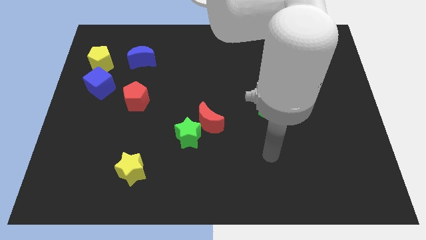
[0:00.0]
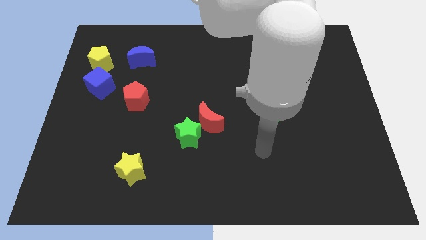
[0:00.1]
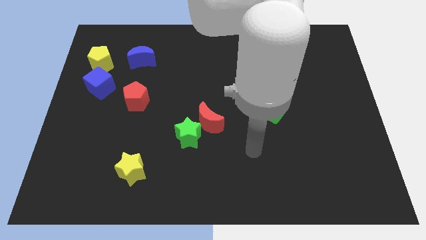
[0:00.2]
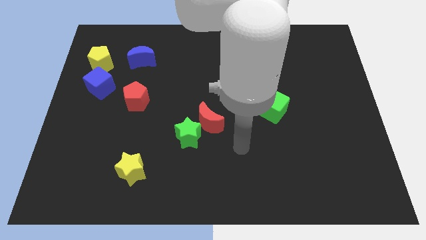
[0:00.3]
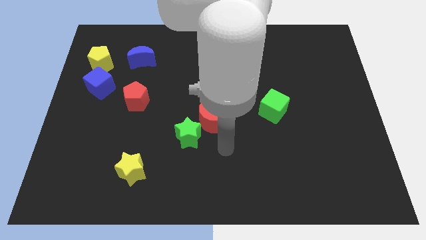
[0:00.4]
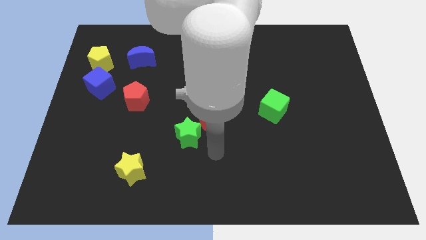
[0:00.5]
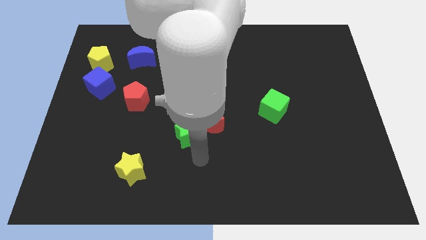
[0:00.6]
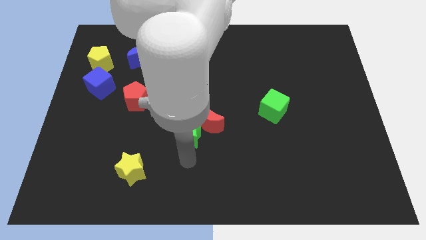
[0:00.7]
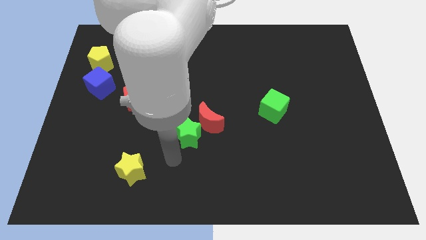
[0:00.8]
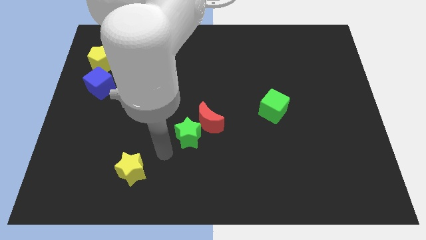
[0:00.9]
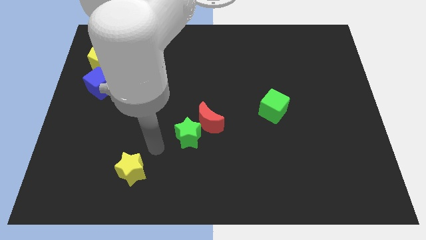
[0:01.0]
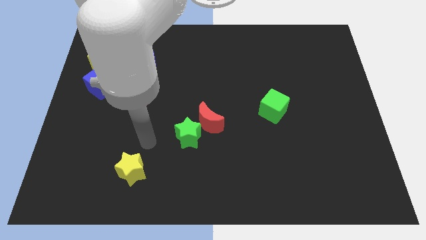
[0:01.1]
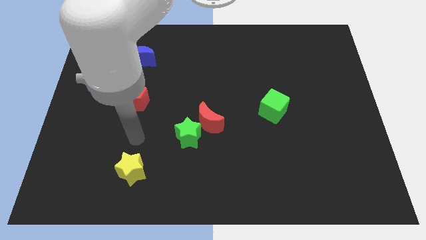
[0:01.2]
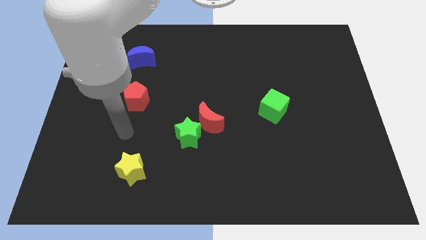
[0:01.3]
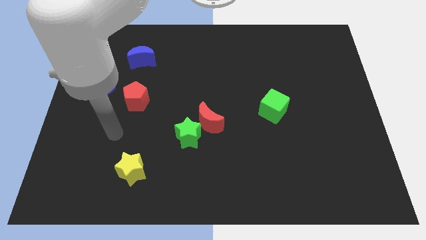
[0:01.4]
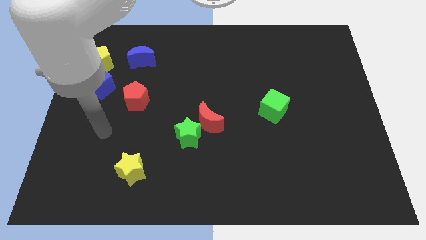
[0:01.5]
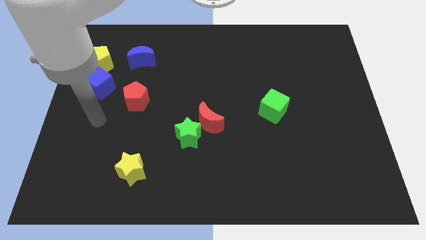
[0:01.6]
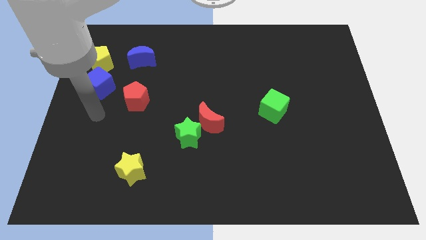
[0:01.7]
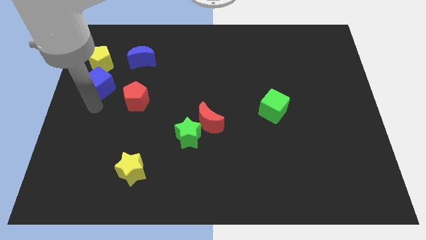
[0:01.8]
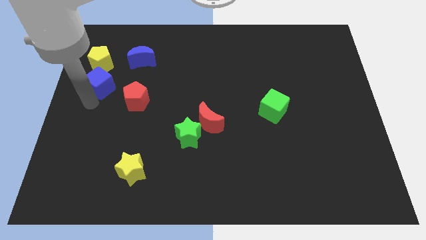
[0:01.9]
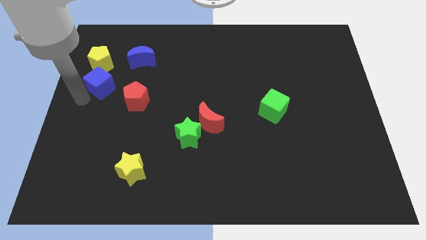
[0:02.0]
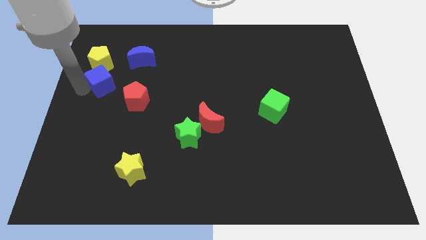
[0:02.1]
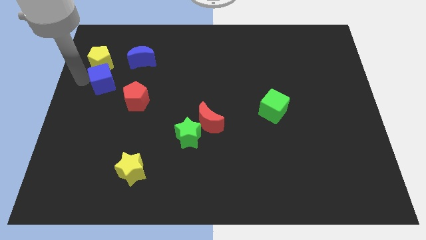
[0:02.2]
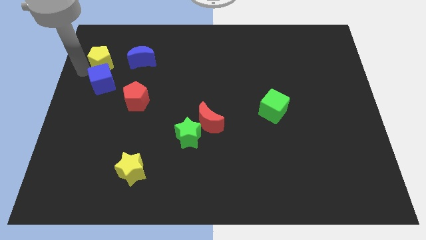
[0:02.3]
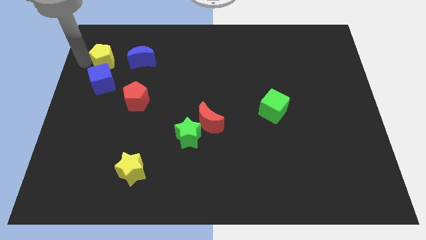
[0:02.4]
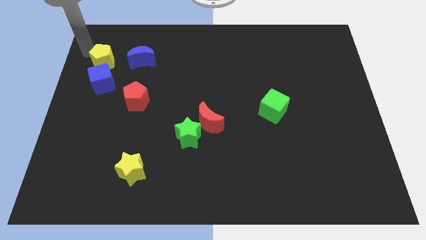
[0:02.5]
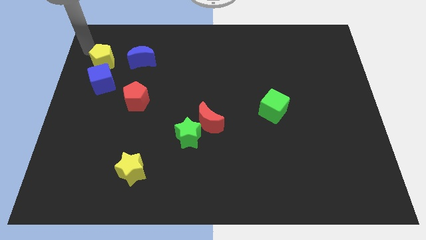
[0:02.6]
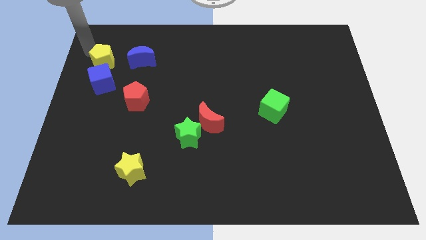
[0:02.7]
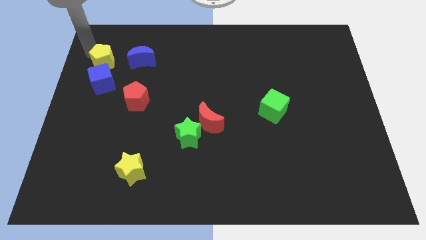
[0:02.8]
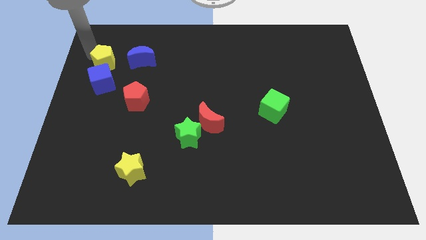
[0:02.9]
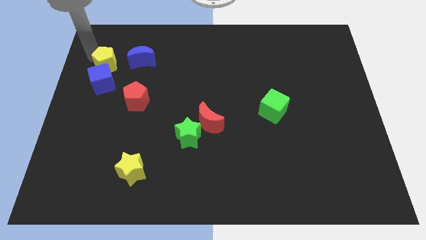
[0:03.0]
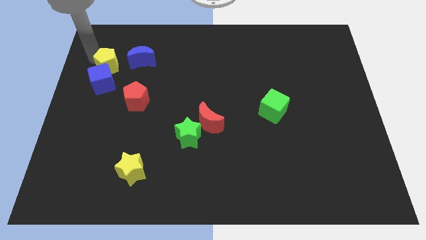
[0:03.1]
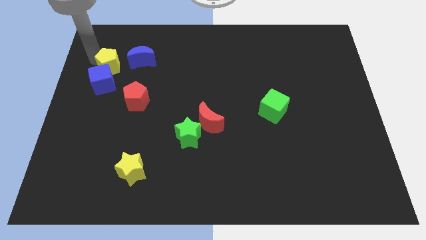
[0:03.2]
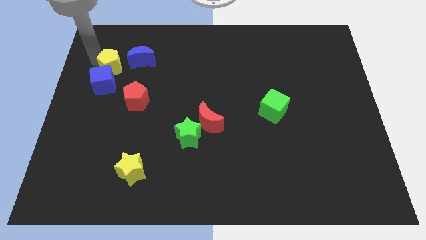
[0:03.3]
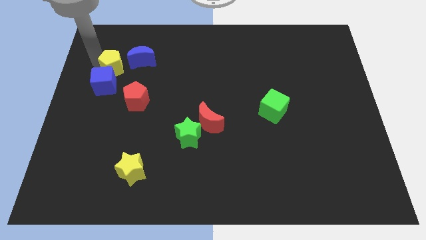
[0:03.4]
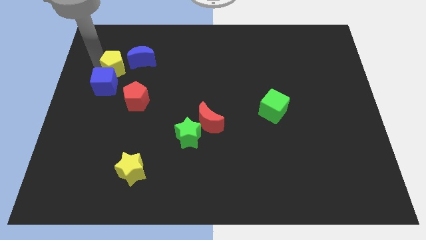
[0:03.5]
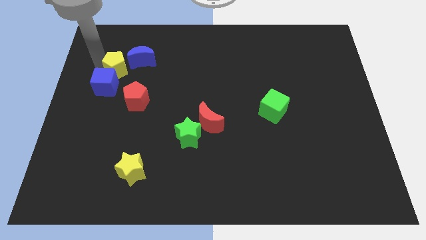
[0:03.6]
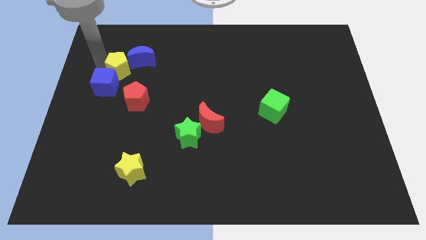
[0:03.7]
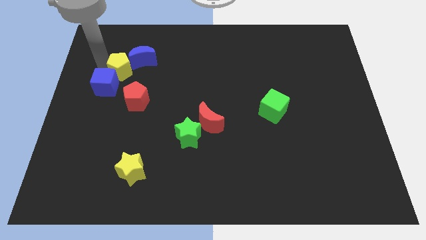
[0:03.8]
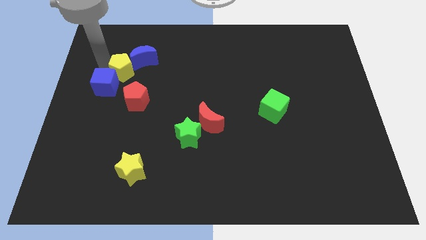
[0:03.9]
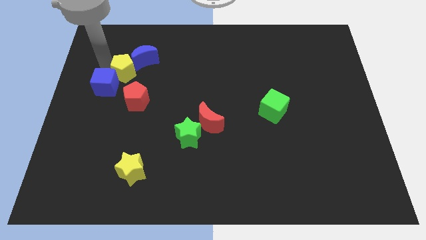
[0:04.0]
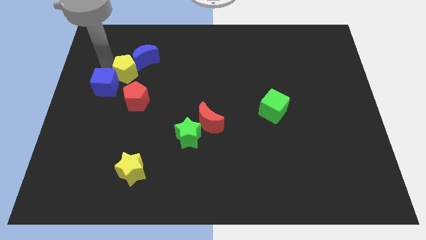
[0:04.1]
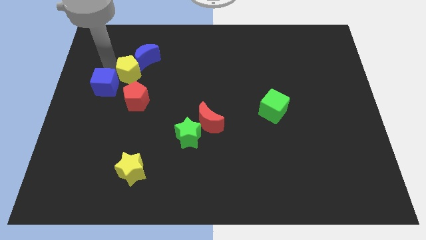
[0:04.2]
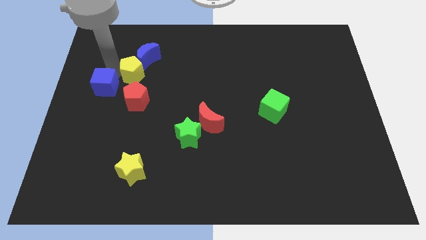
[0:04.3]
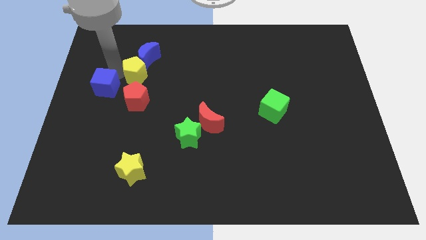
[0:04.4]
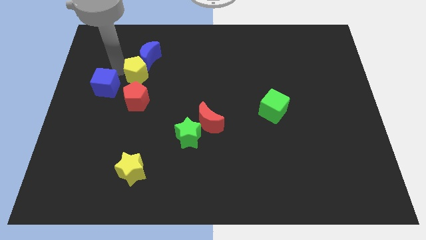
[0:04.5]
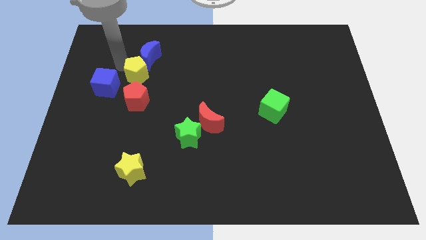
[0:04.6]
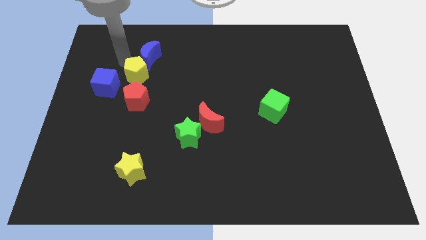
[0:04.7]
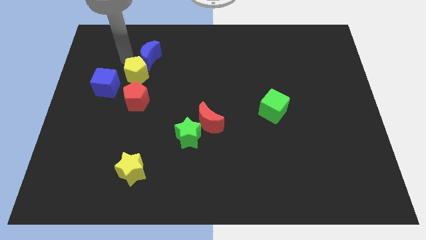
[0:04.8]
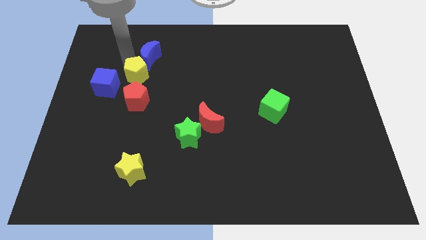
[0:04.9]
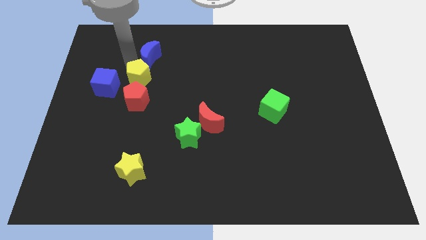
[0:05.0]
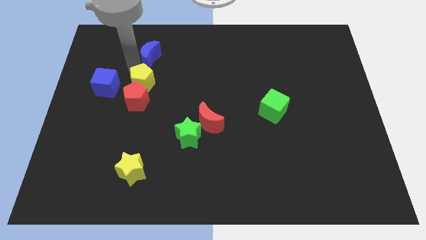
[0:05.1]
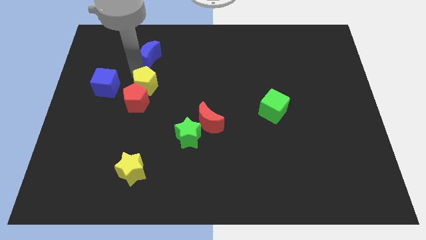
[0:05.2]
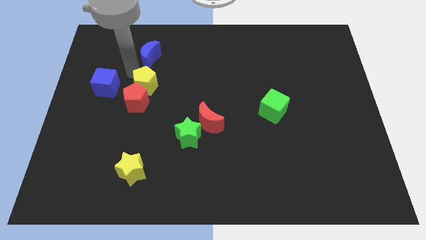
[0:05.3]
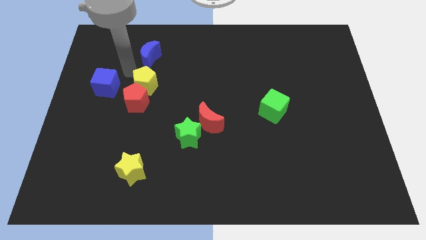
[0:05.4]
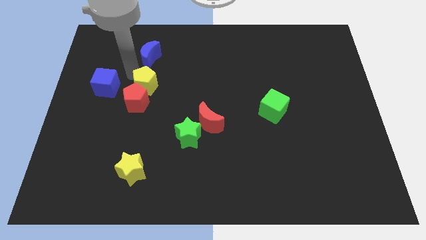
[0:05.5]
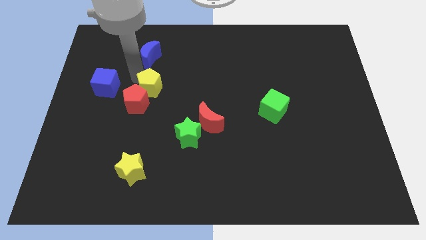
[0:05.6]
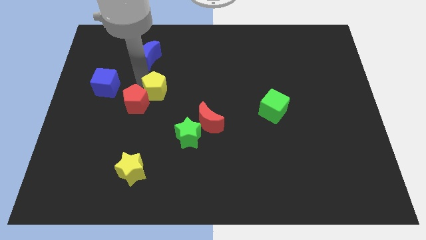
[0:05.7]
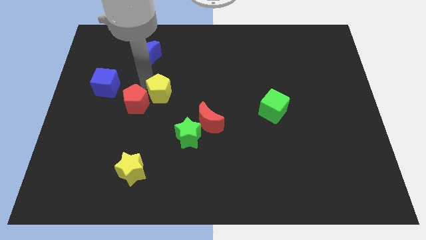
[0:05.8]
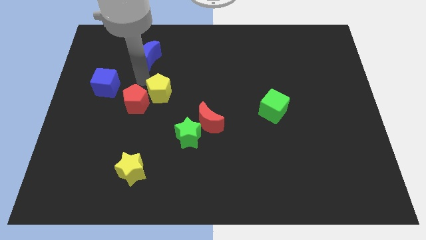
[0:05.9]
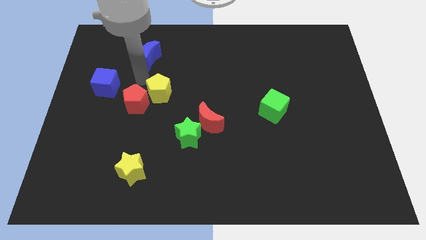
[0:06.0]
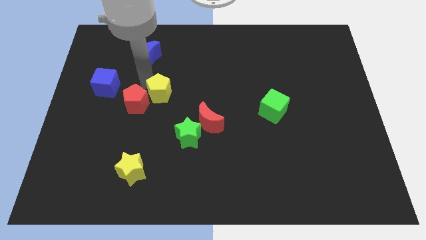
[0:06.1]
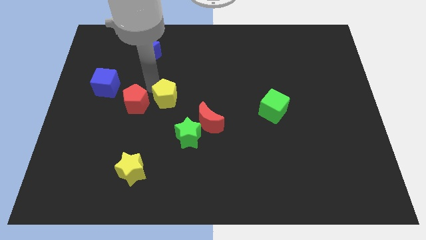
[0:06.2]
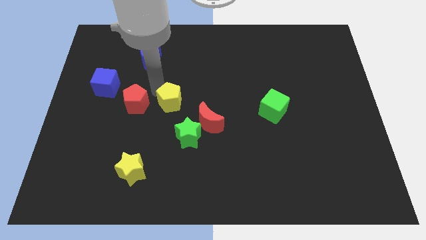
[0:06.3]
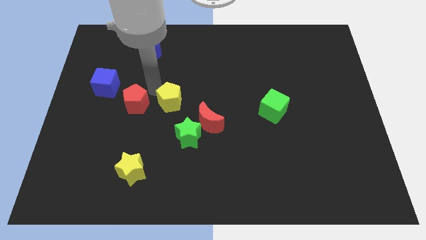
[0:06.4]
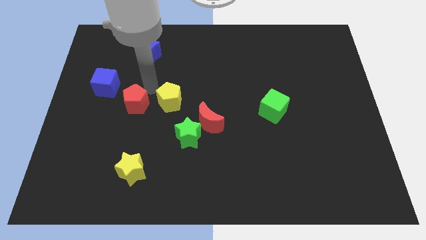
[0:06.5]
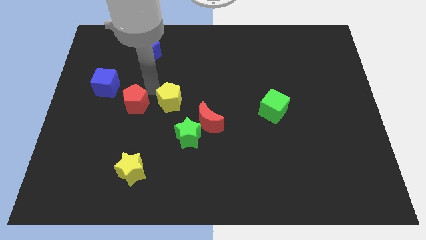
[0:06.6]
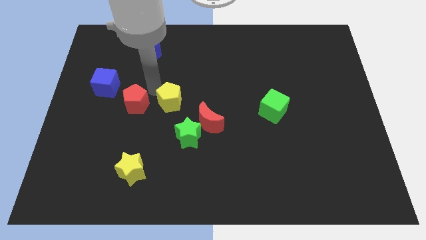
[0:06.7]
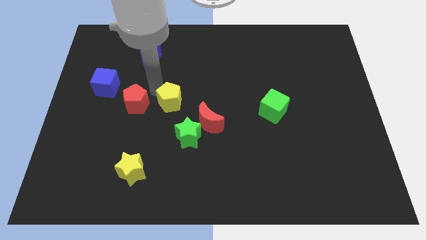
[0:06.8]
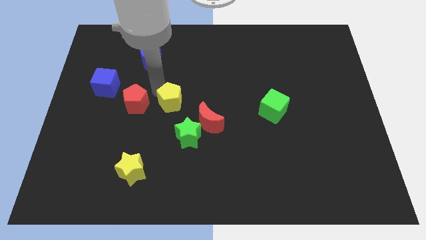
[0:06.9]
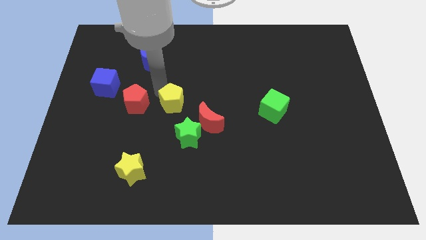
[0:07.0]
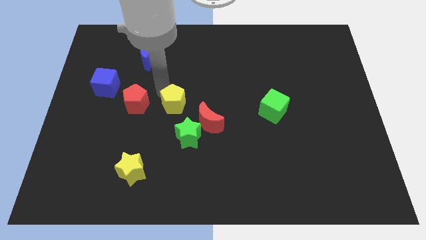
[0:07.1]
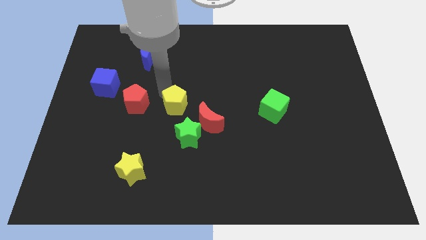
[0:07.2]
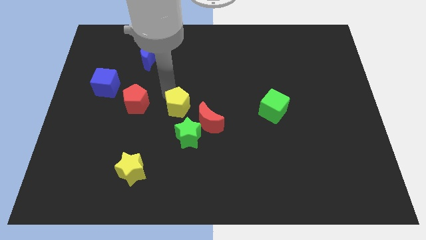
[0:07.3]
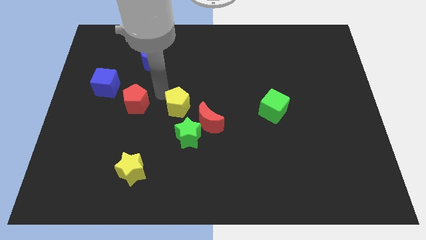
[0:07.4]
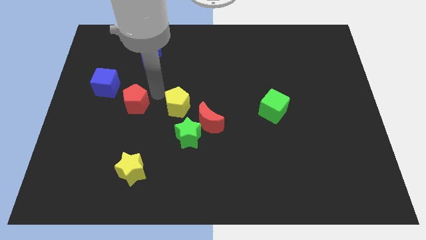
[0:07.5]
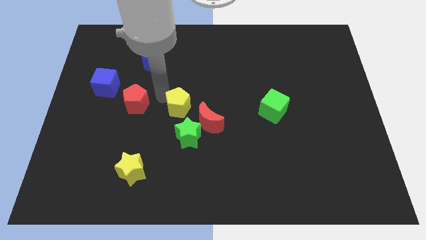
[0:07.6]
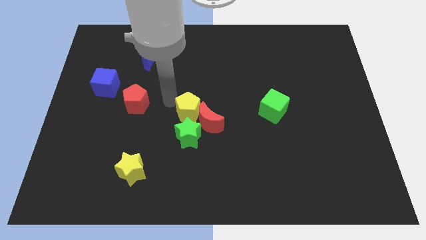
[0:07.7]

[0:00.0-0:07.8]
slide the yellow pentagon to the red moon
